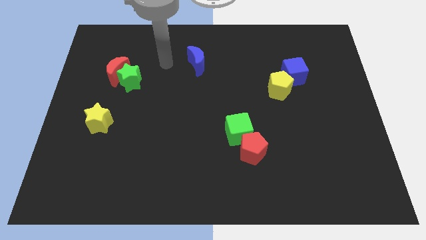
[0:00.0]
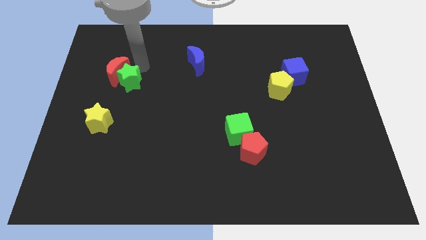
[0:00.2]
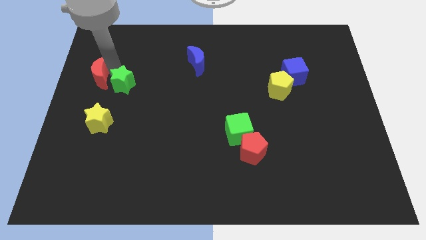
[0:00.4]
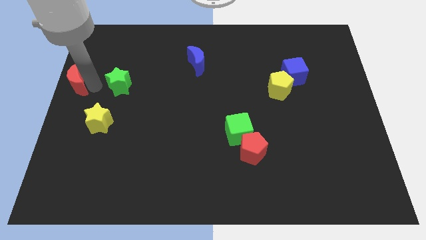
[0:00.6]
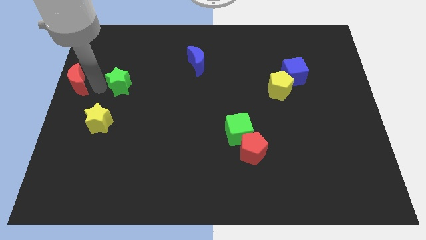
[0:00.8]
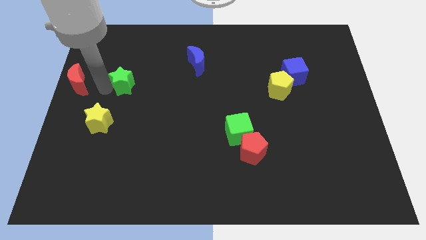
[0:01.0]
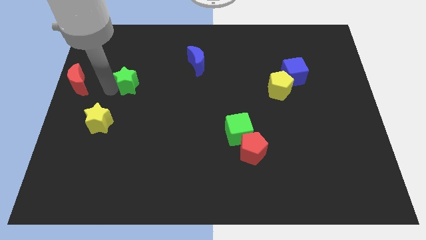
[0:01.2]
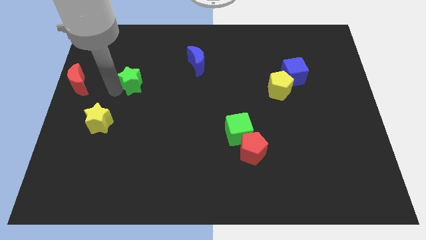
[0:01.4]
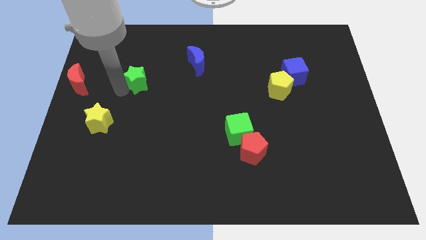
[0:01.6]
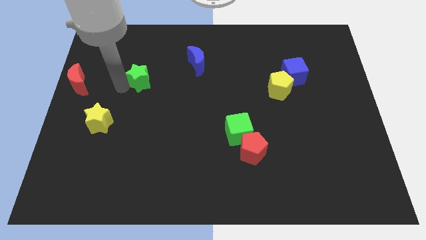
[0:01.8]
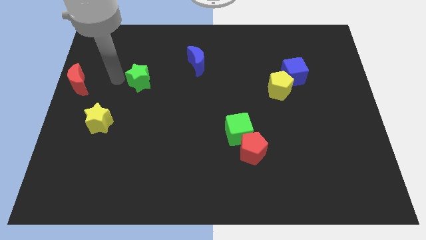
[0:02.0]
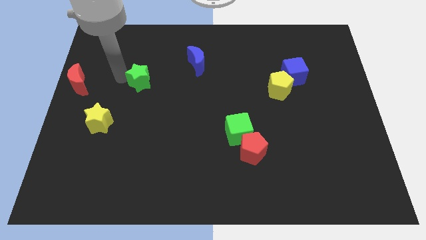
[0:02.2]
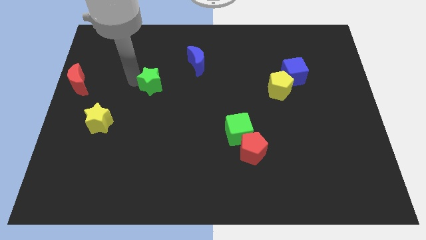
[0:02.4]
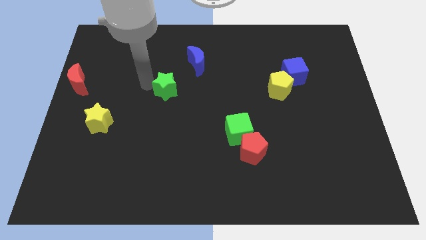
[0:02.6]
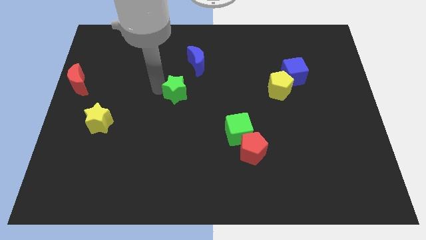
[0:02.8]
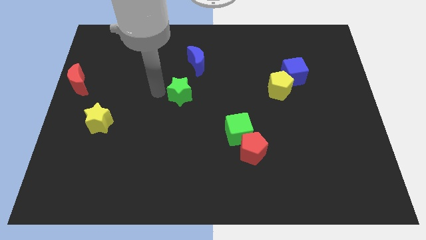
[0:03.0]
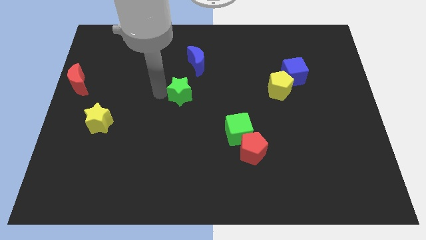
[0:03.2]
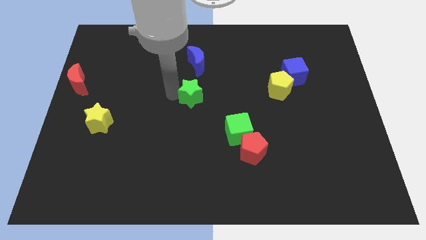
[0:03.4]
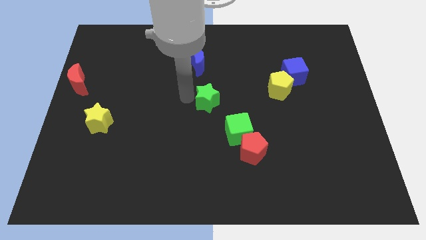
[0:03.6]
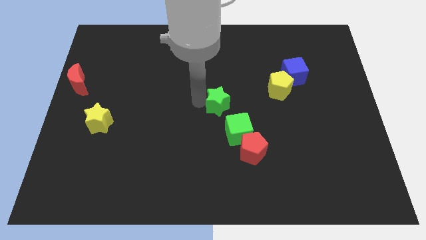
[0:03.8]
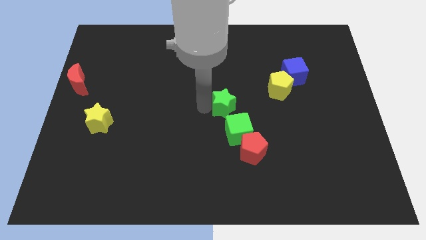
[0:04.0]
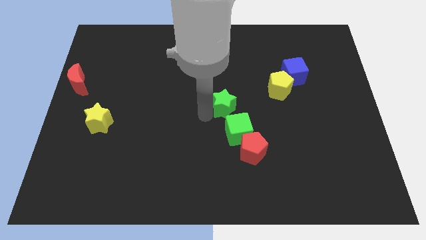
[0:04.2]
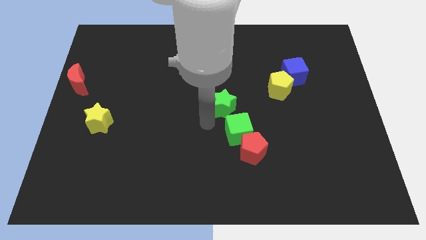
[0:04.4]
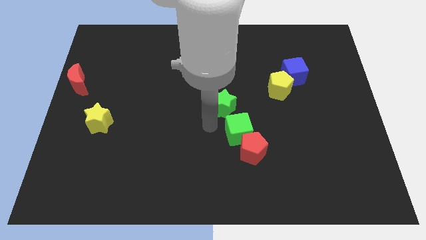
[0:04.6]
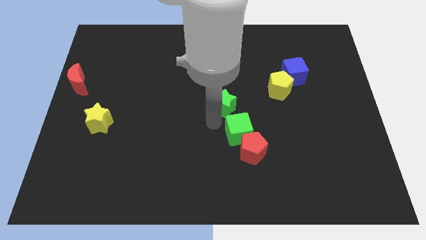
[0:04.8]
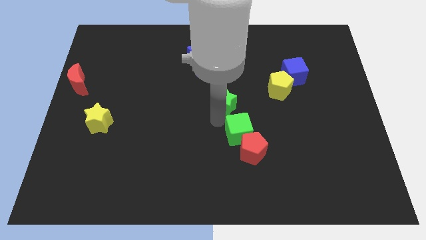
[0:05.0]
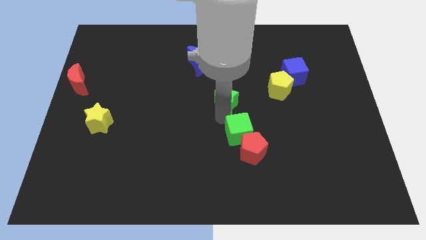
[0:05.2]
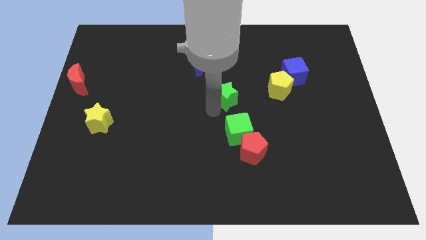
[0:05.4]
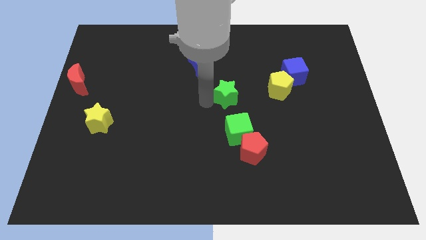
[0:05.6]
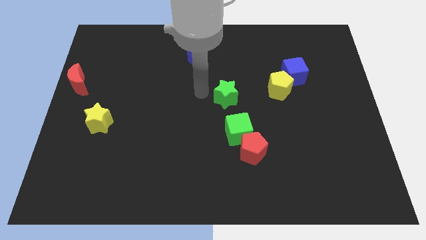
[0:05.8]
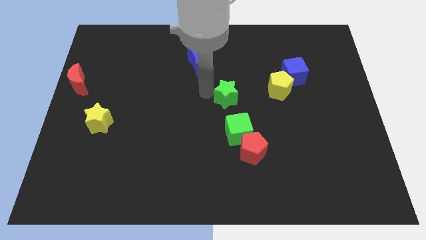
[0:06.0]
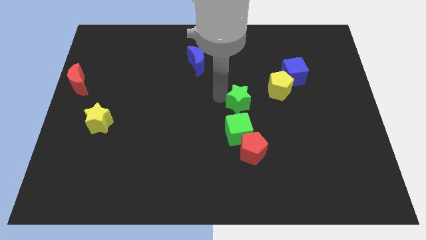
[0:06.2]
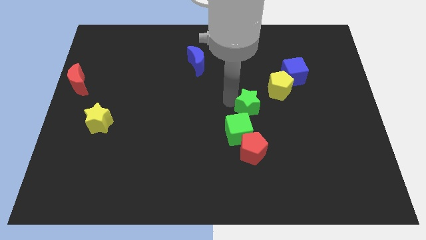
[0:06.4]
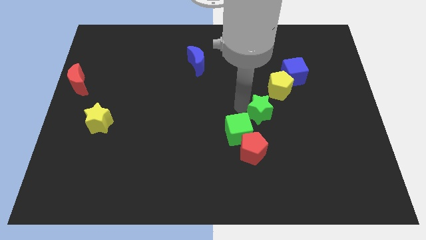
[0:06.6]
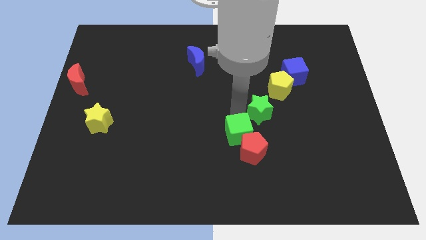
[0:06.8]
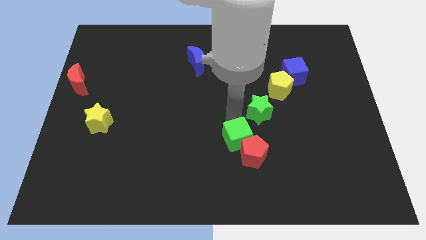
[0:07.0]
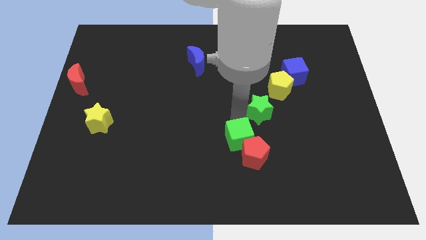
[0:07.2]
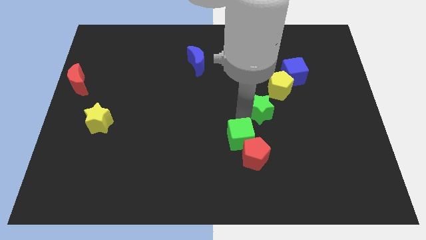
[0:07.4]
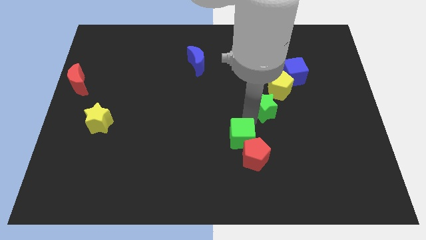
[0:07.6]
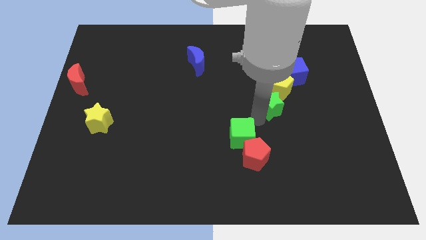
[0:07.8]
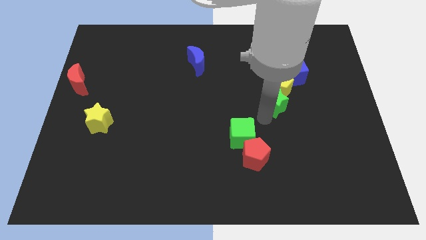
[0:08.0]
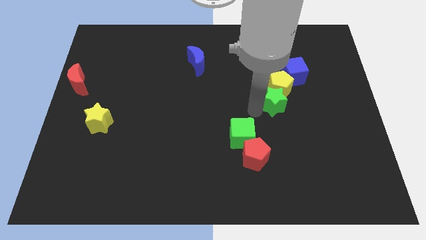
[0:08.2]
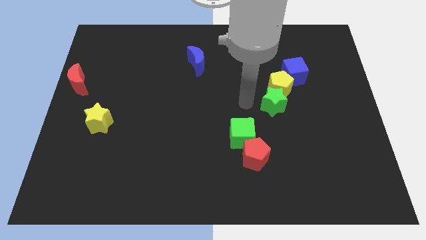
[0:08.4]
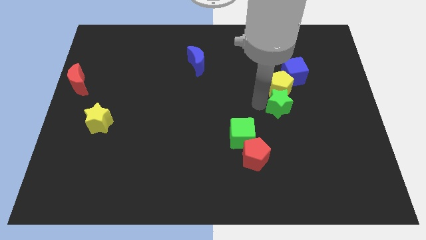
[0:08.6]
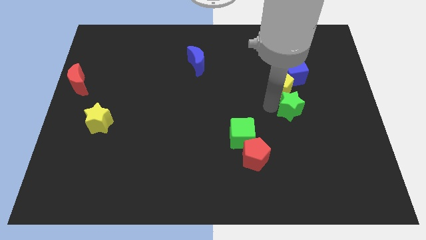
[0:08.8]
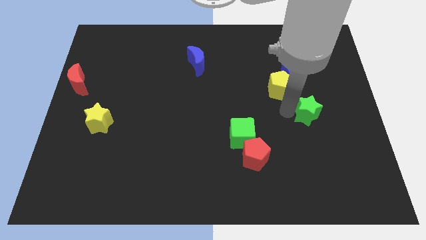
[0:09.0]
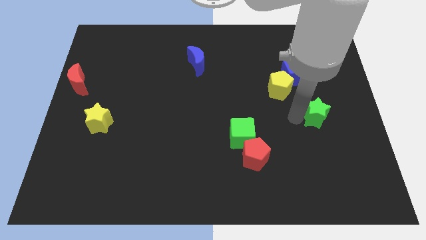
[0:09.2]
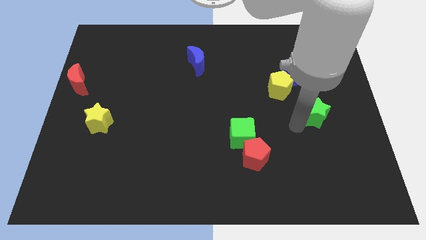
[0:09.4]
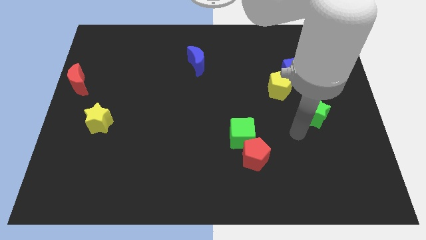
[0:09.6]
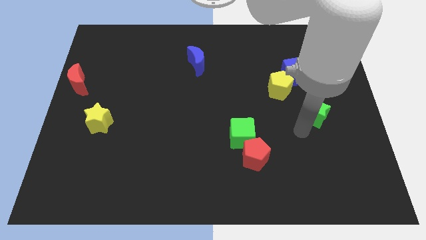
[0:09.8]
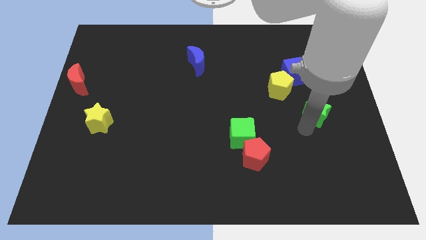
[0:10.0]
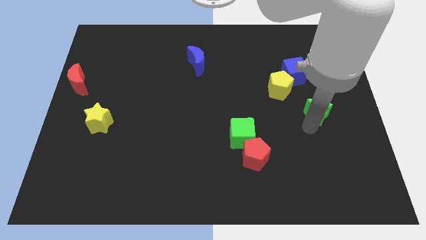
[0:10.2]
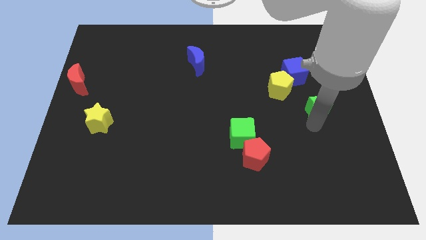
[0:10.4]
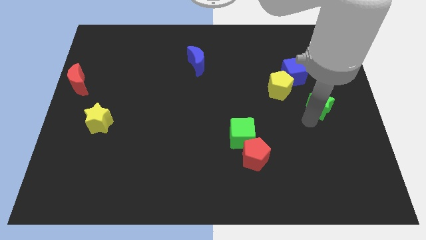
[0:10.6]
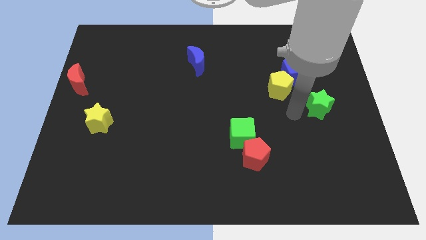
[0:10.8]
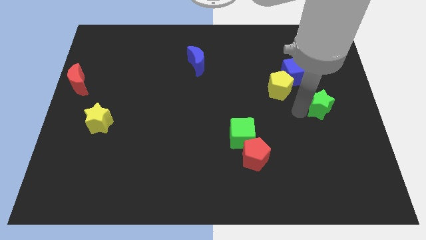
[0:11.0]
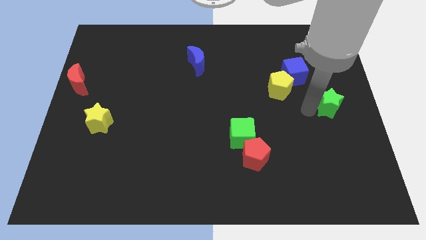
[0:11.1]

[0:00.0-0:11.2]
slide the green star to the center right
